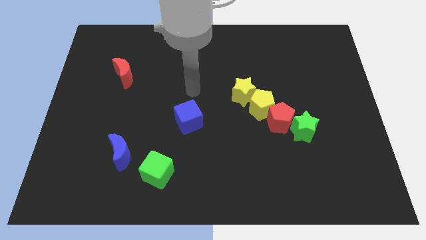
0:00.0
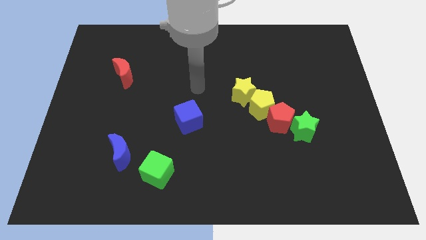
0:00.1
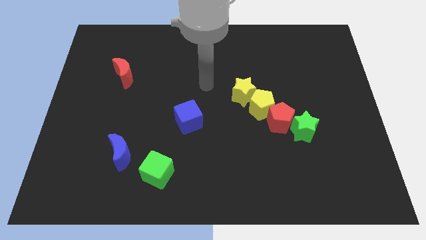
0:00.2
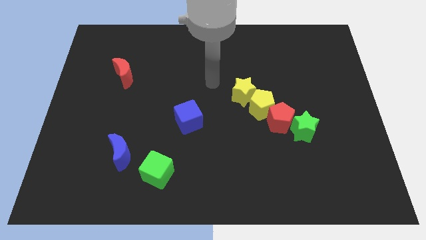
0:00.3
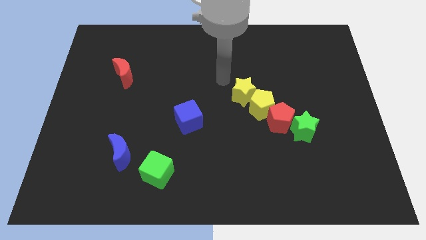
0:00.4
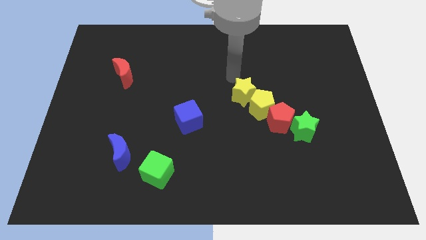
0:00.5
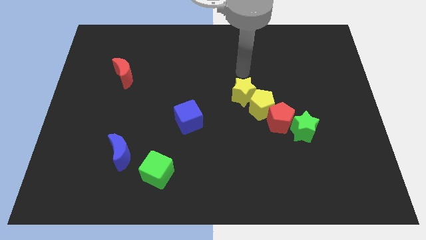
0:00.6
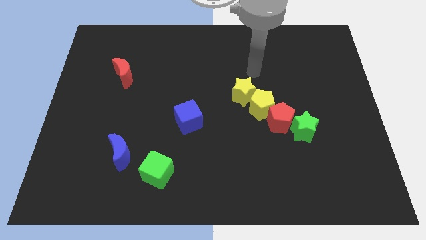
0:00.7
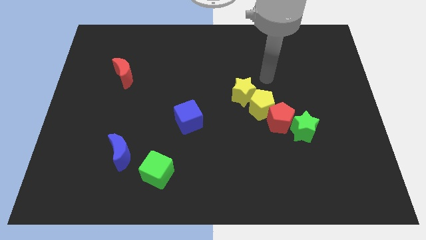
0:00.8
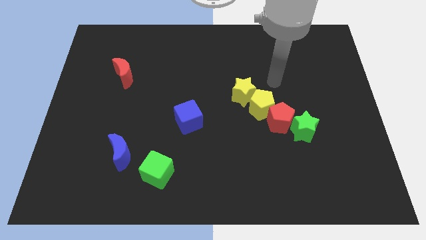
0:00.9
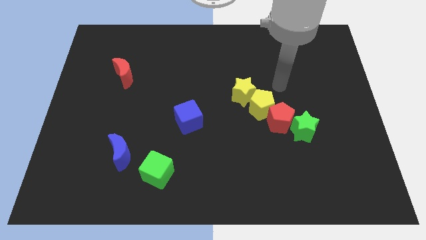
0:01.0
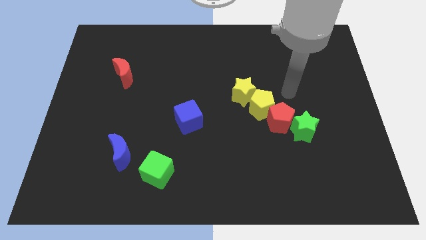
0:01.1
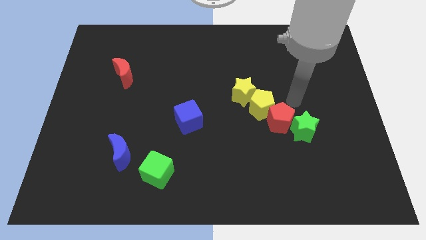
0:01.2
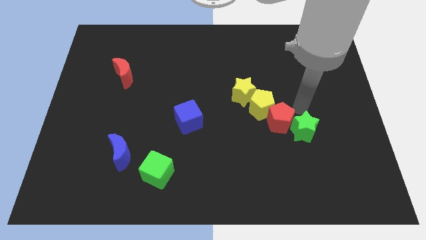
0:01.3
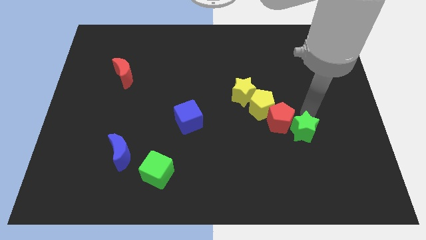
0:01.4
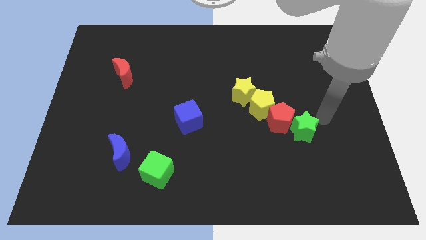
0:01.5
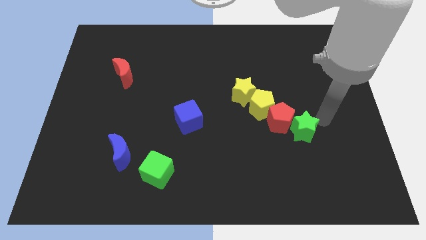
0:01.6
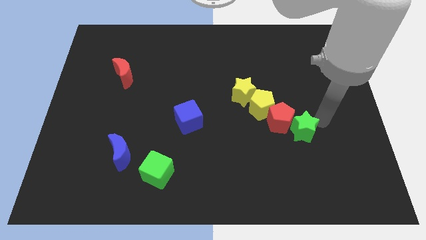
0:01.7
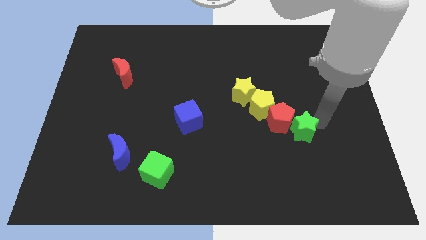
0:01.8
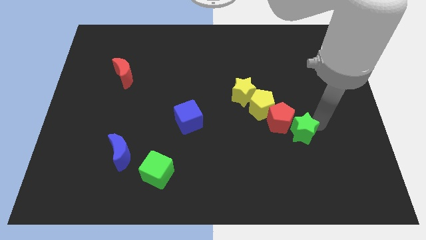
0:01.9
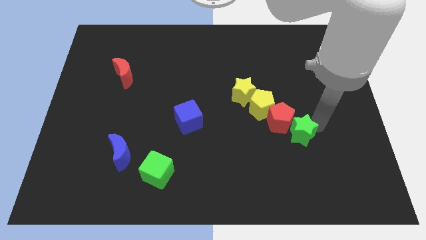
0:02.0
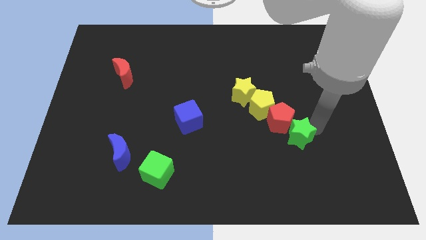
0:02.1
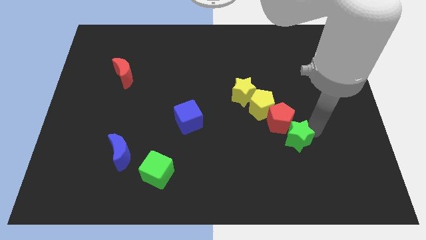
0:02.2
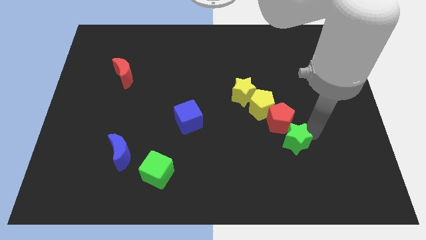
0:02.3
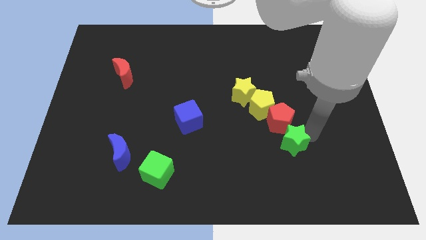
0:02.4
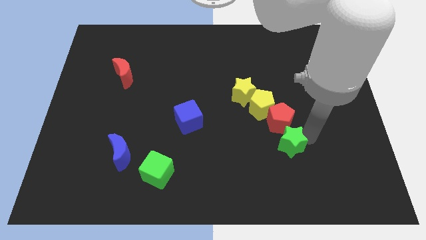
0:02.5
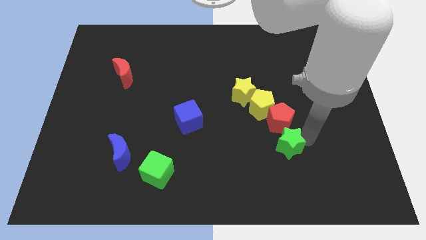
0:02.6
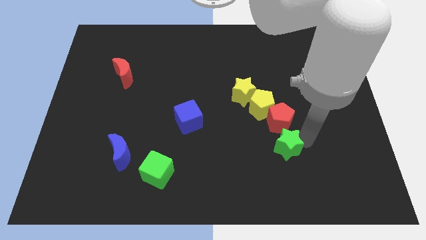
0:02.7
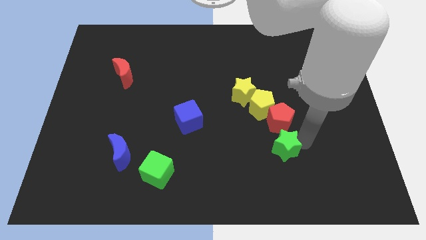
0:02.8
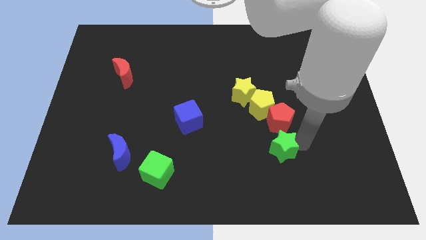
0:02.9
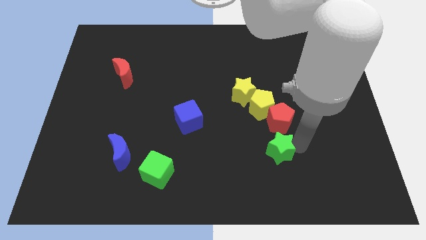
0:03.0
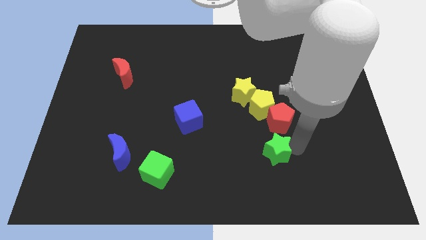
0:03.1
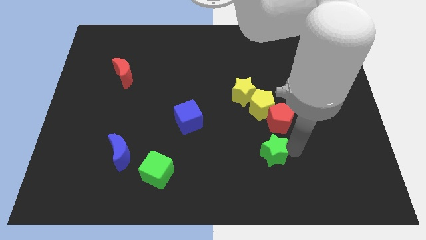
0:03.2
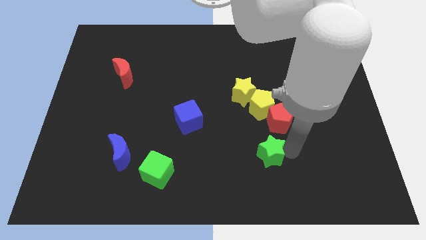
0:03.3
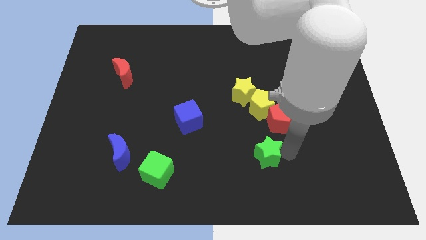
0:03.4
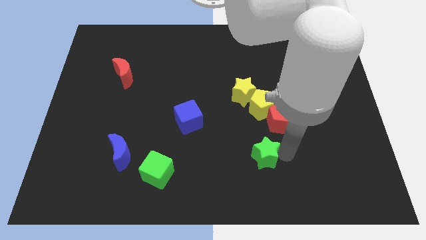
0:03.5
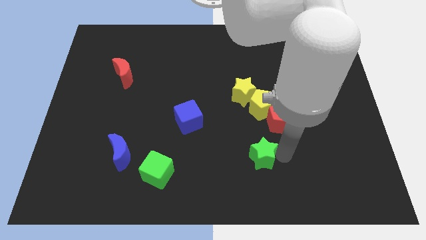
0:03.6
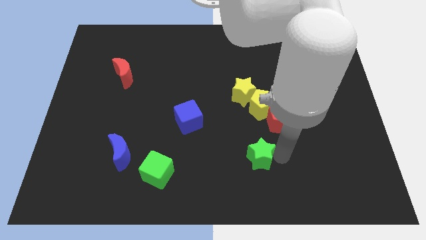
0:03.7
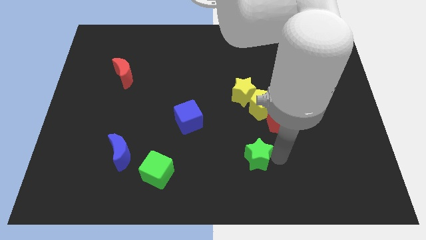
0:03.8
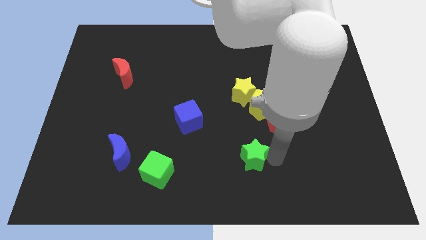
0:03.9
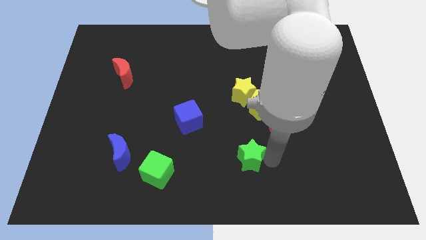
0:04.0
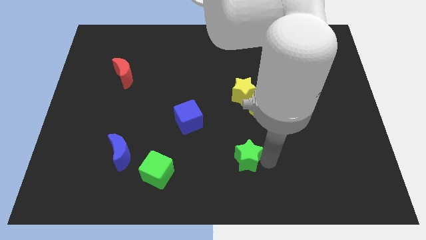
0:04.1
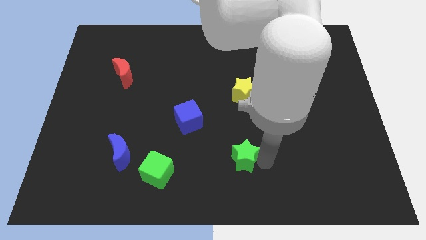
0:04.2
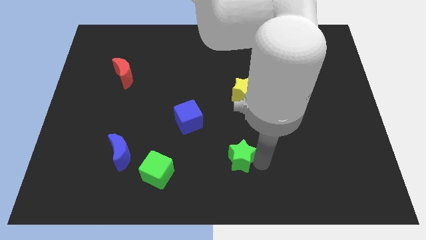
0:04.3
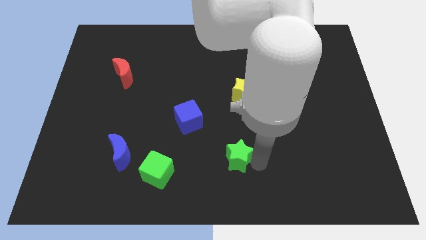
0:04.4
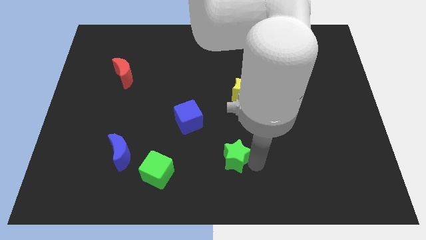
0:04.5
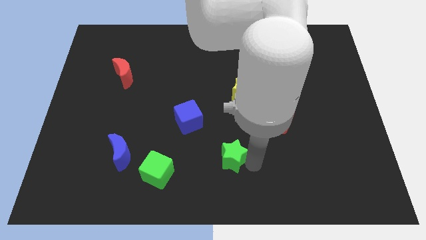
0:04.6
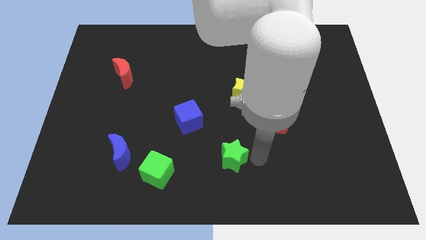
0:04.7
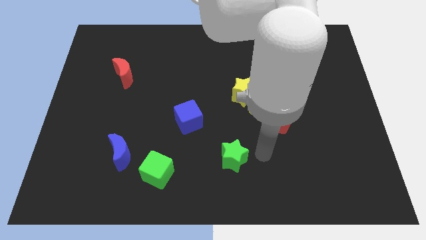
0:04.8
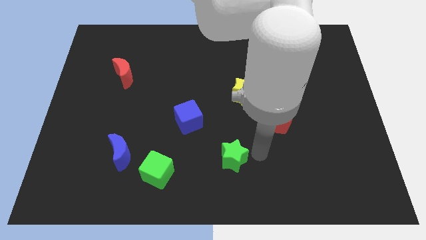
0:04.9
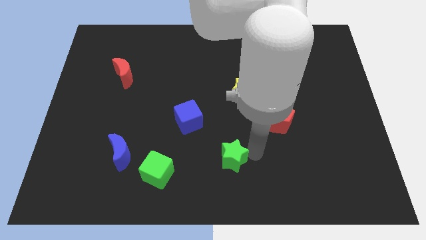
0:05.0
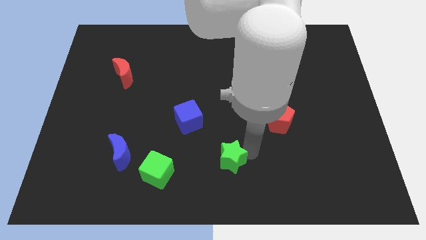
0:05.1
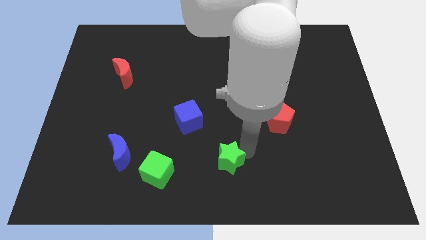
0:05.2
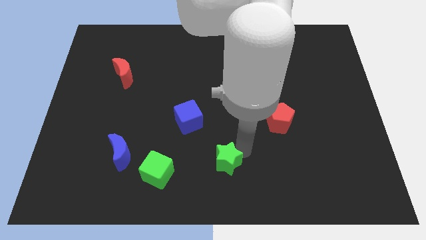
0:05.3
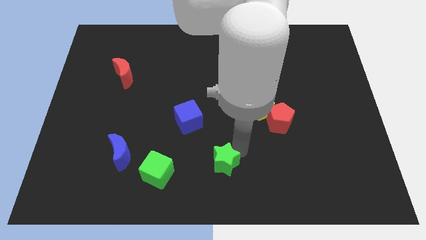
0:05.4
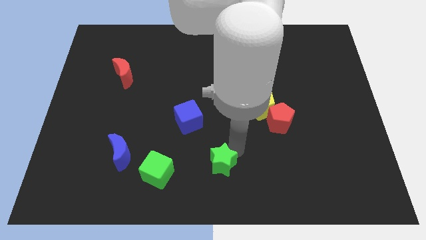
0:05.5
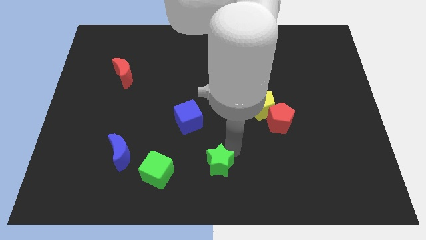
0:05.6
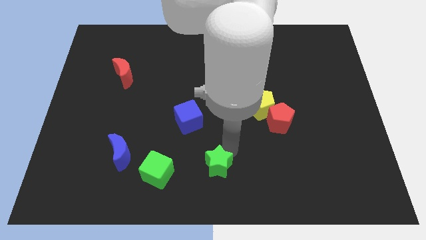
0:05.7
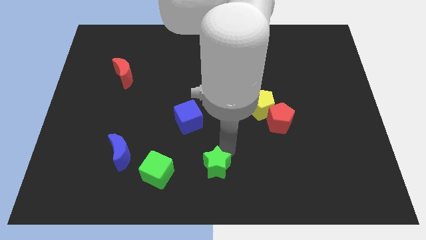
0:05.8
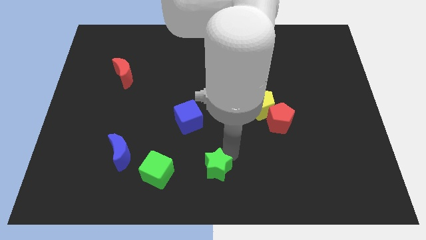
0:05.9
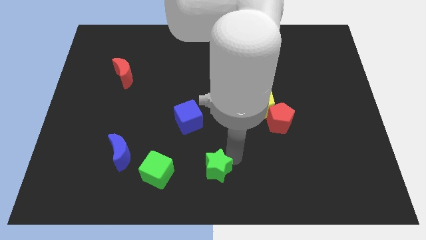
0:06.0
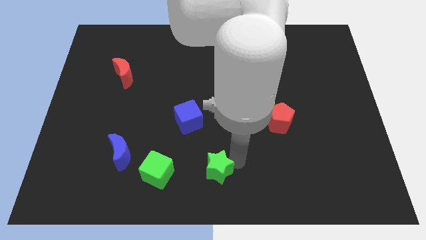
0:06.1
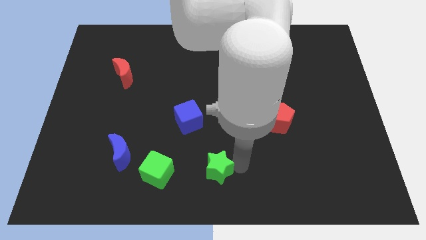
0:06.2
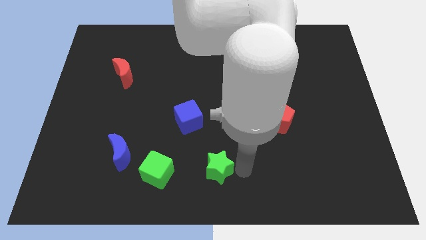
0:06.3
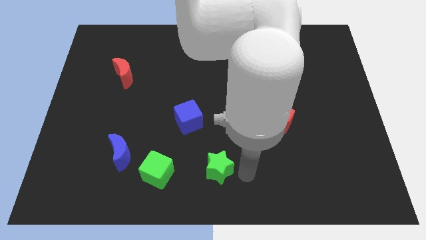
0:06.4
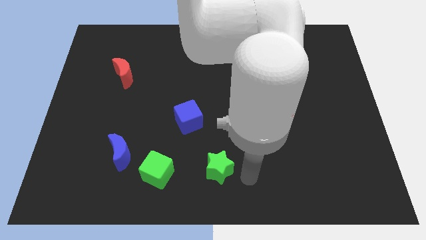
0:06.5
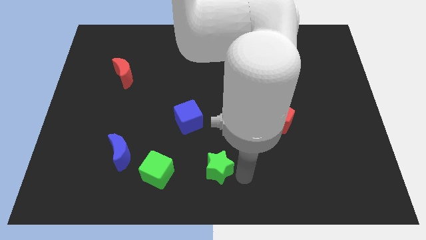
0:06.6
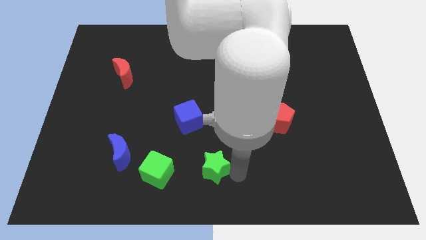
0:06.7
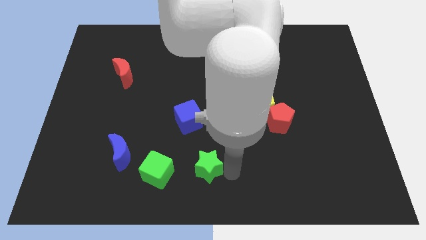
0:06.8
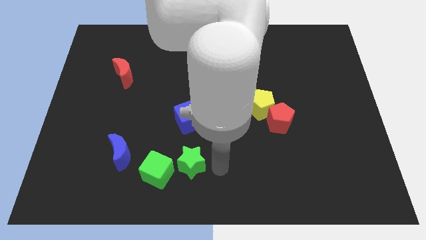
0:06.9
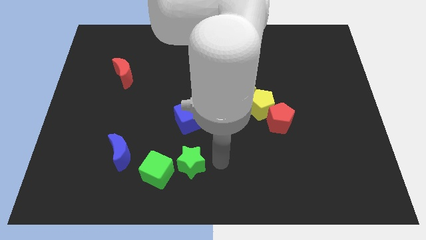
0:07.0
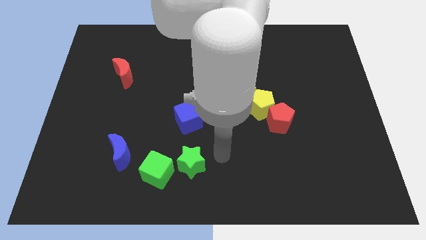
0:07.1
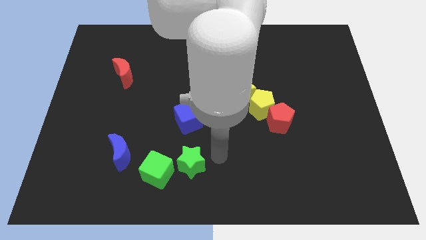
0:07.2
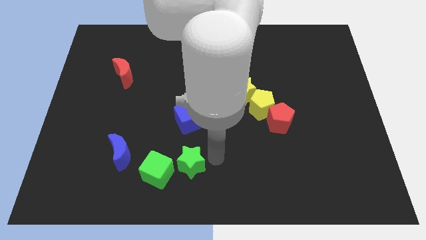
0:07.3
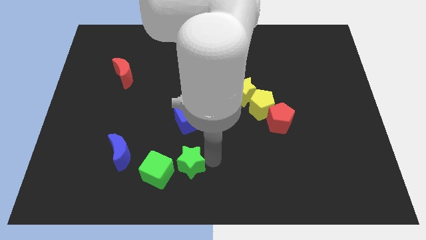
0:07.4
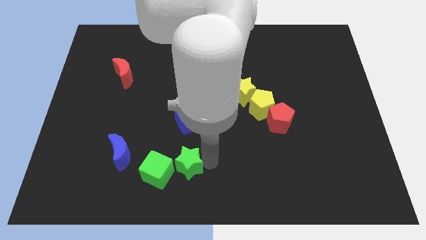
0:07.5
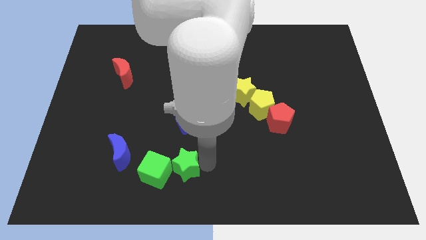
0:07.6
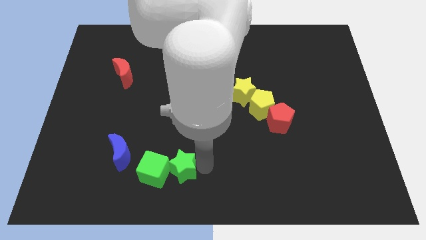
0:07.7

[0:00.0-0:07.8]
push the green star close to the green cube
